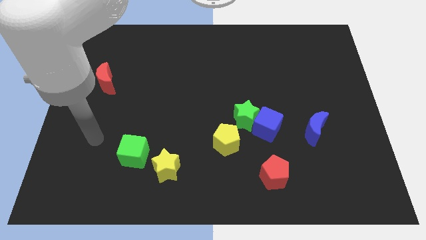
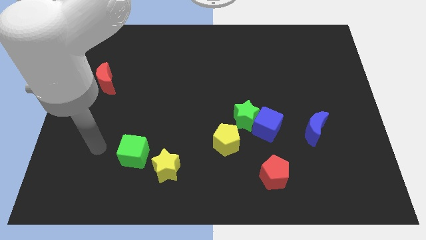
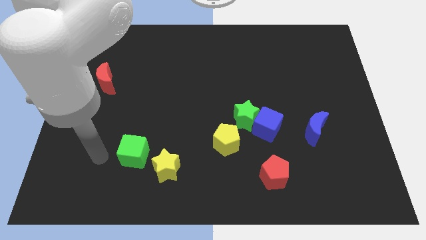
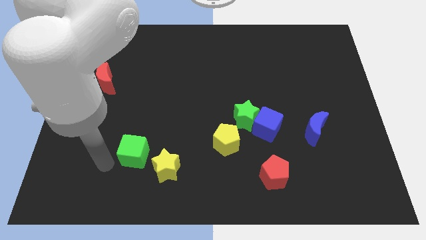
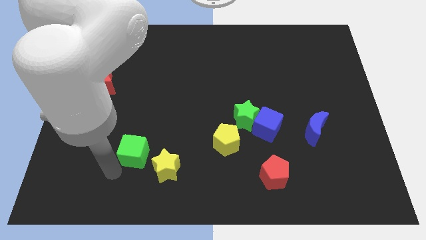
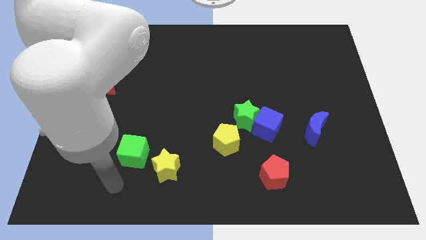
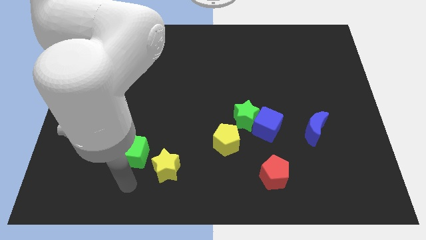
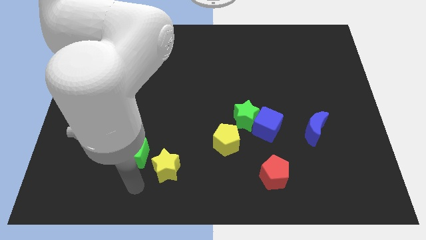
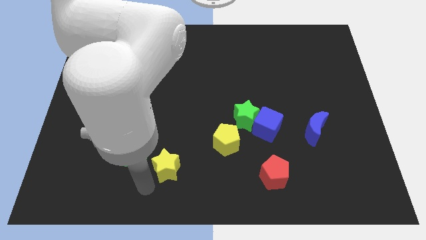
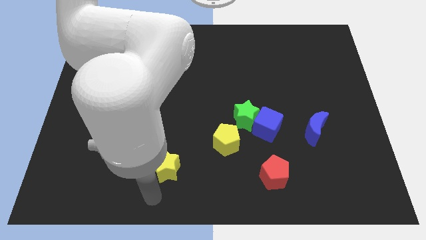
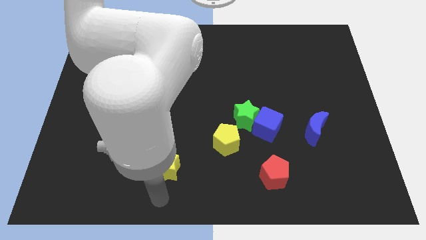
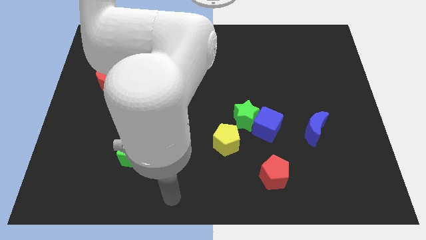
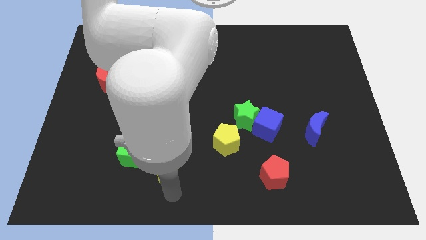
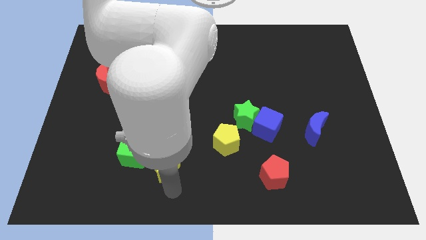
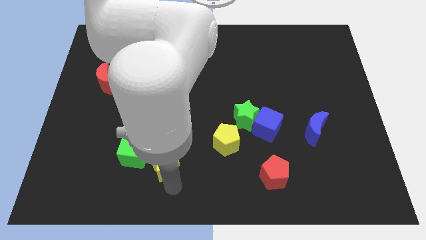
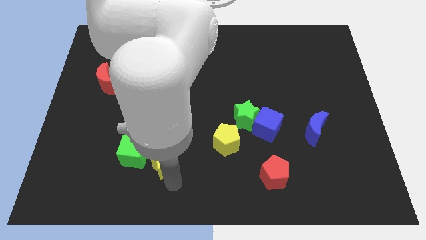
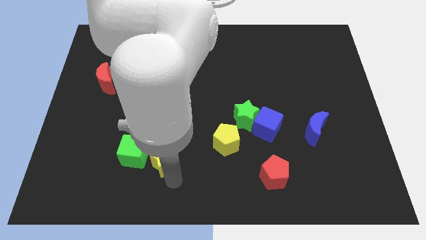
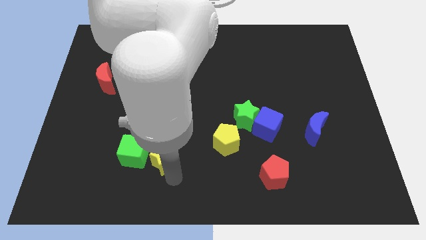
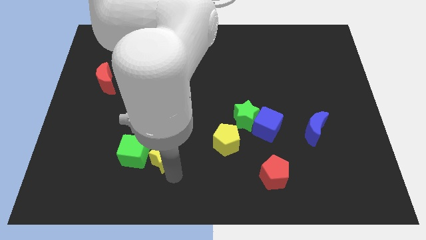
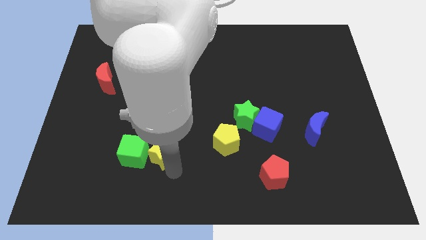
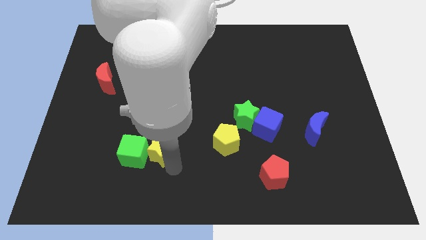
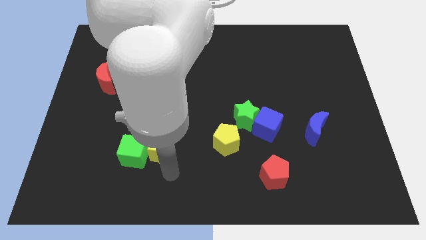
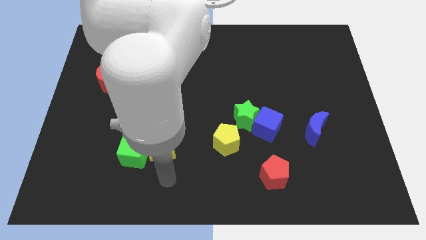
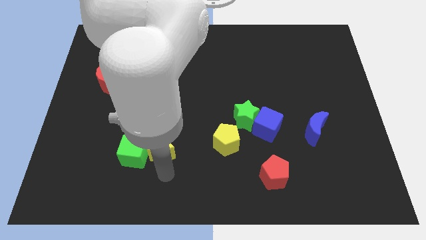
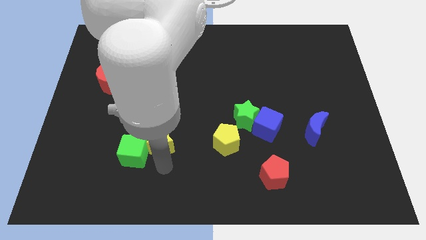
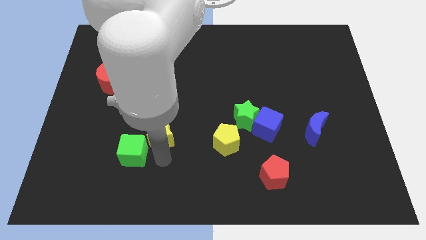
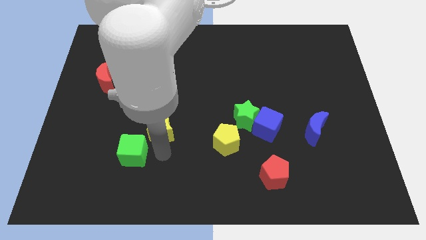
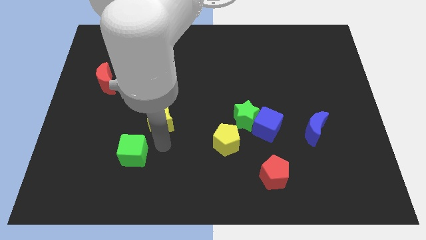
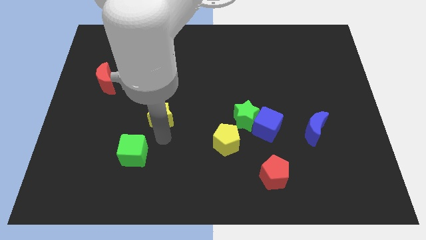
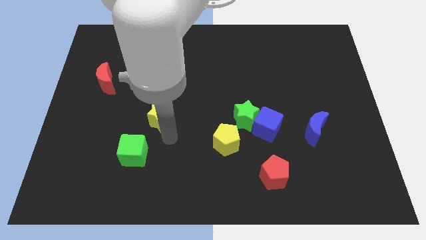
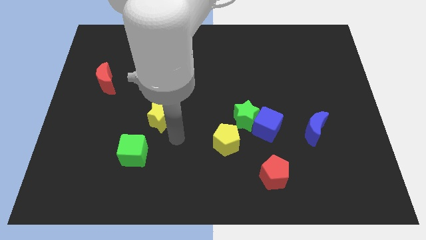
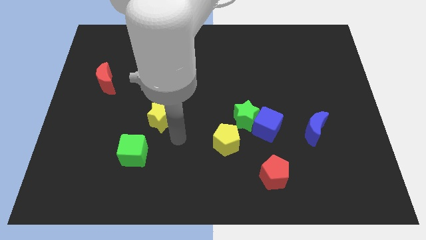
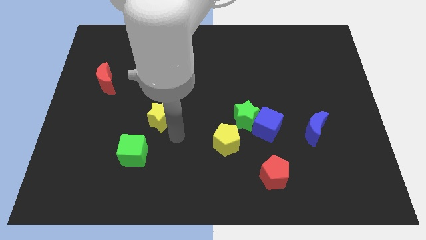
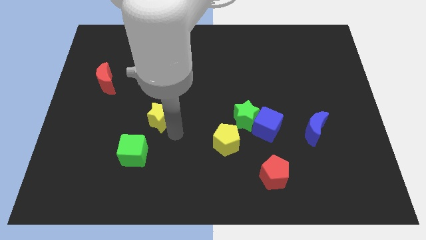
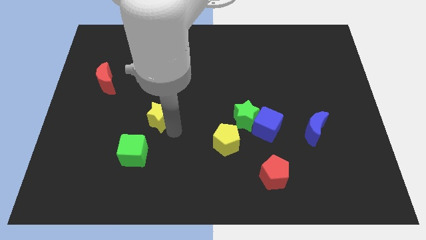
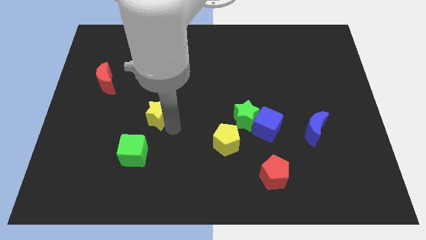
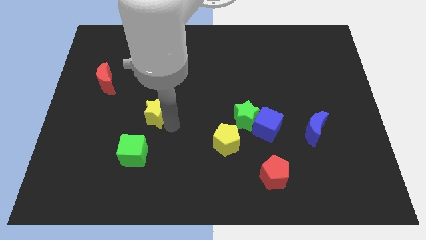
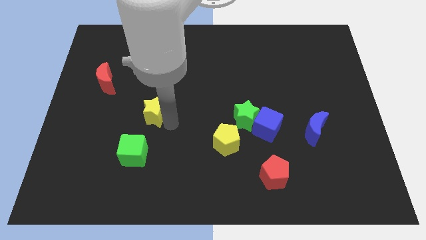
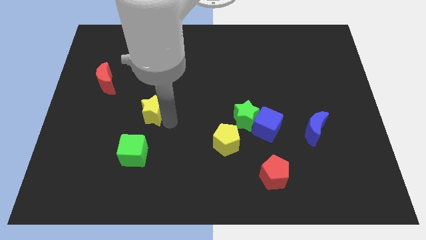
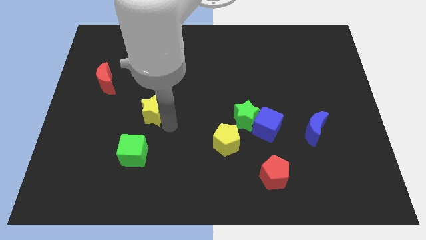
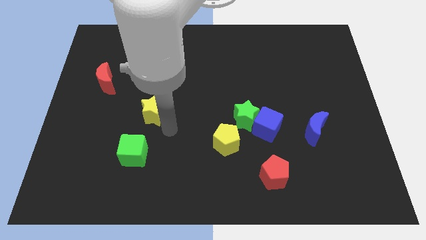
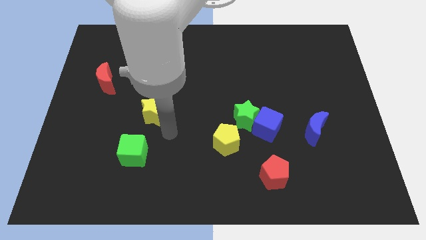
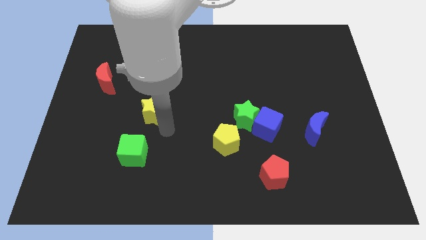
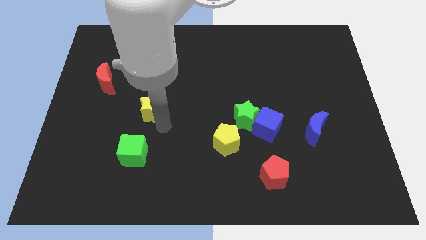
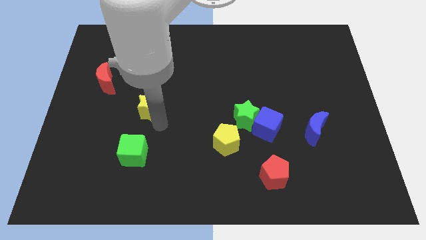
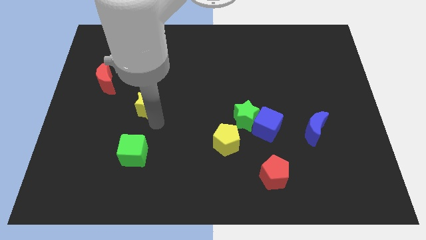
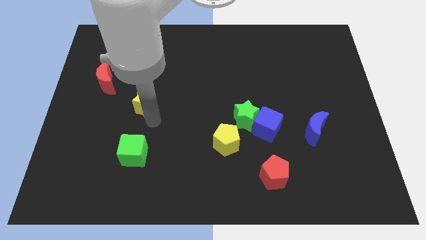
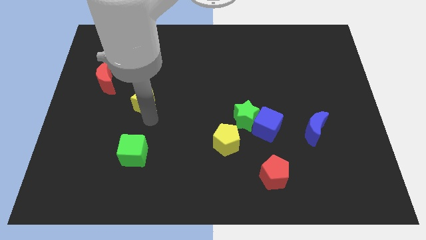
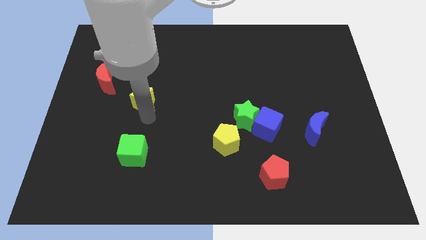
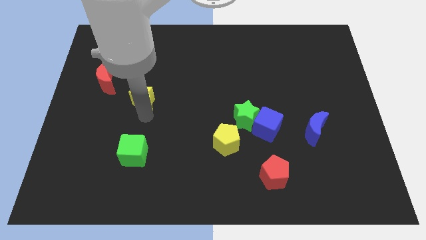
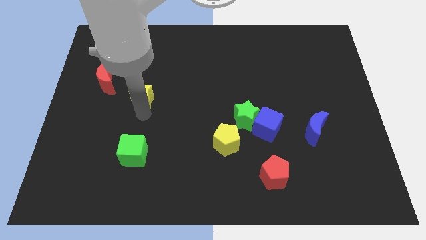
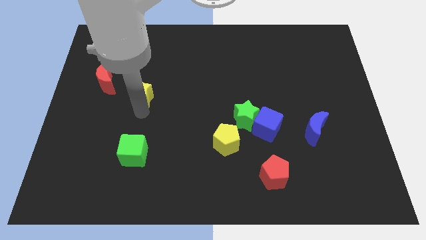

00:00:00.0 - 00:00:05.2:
slide the yellow star just right of the red moon

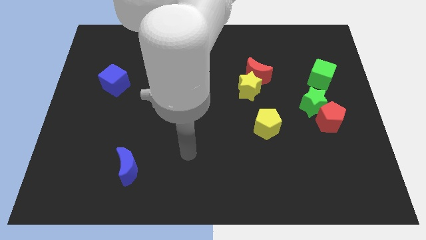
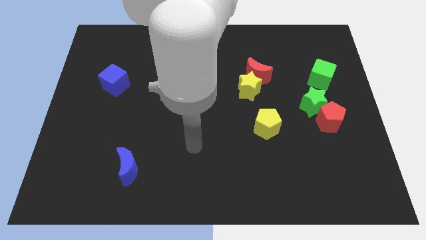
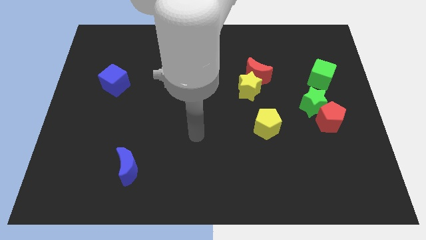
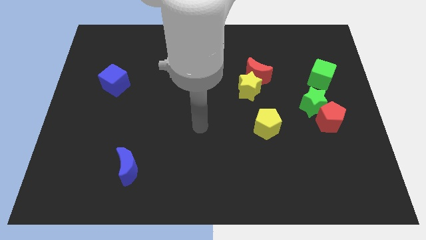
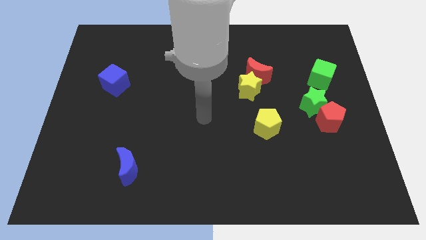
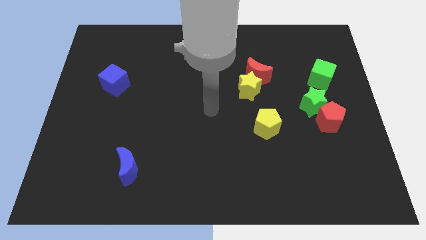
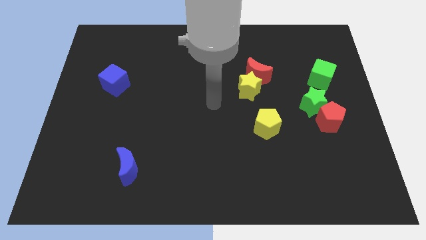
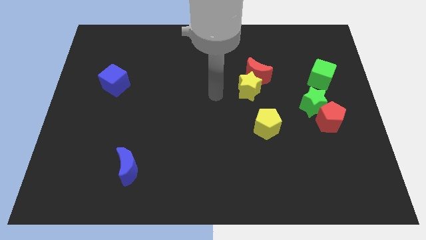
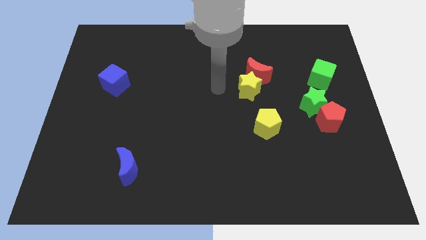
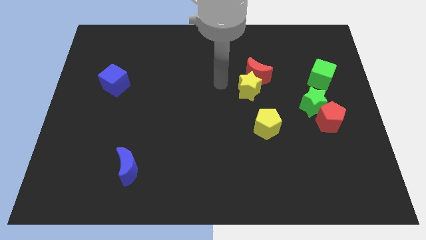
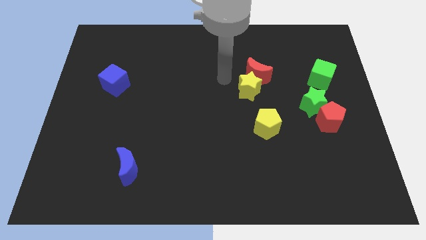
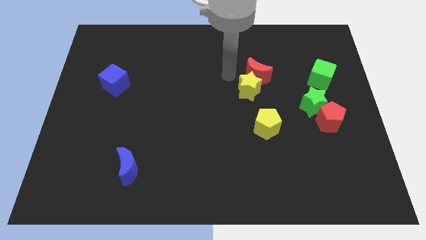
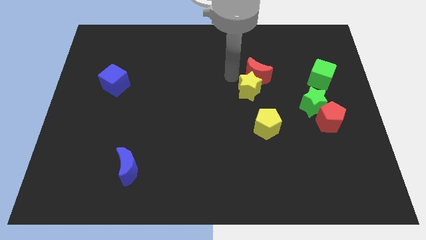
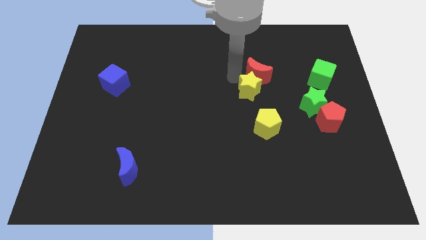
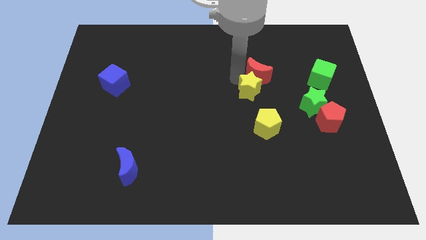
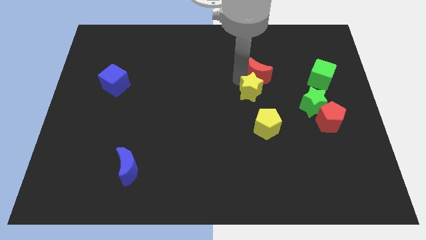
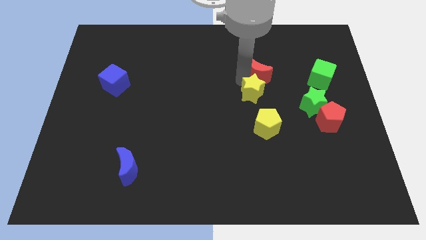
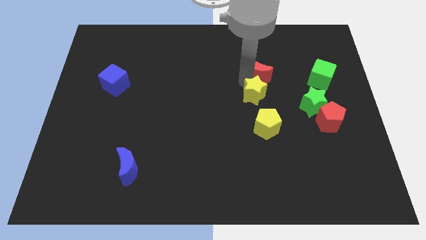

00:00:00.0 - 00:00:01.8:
move the yellow star just left of the green star

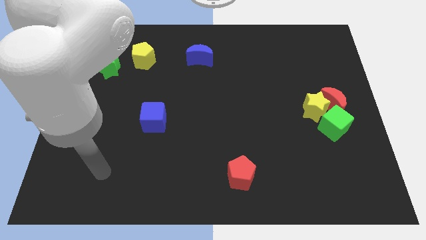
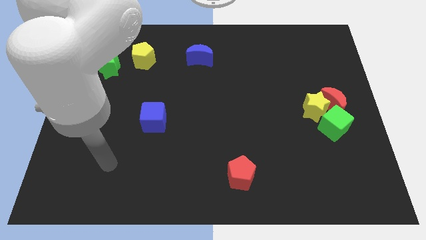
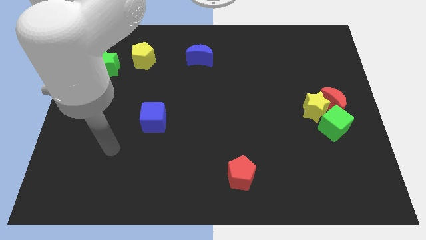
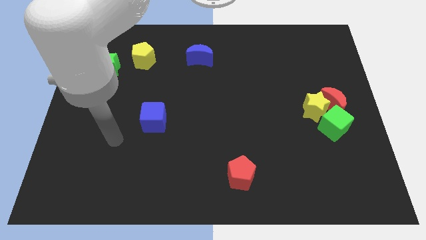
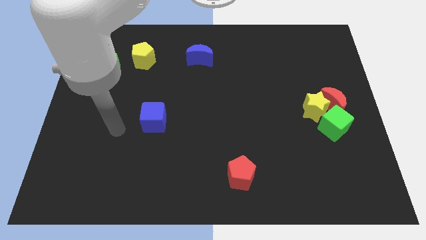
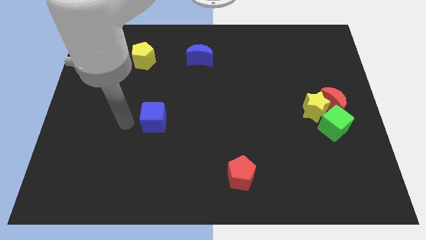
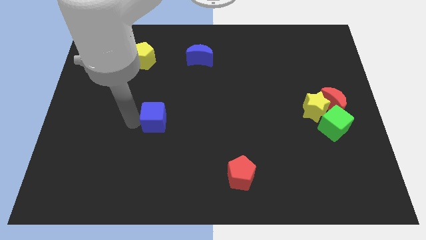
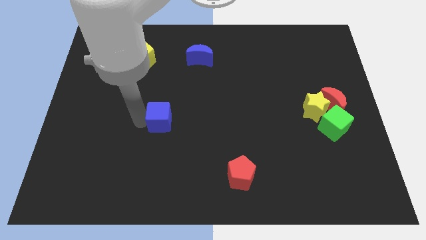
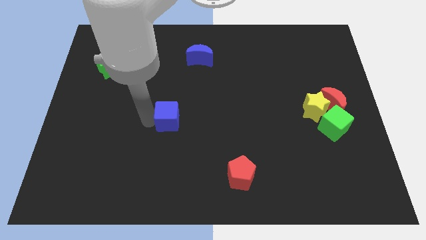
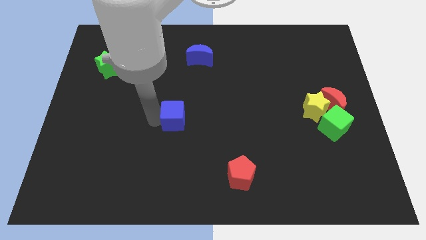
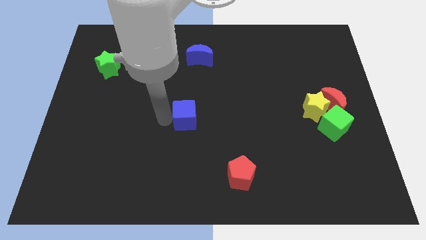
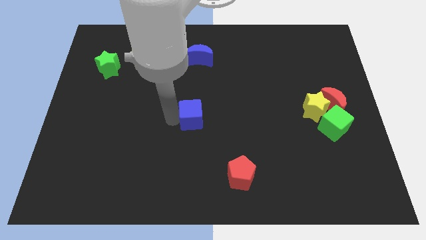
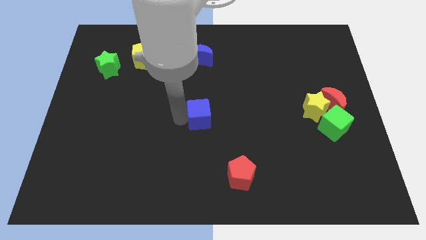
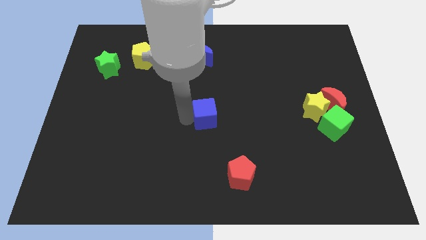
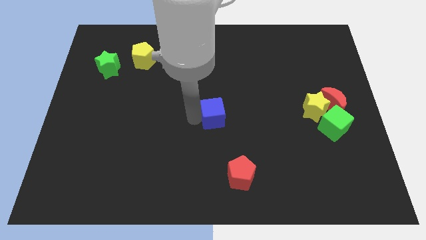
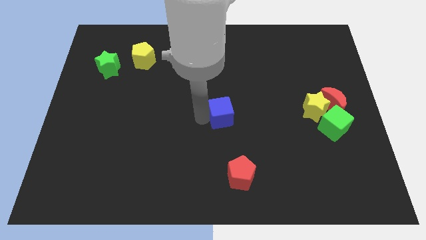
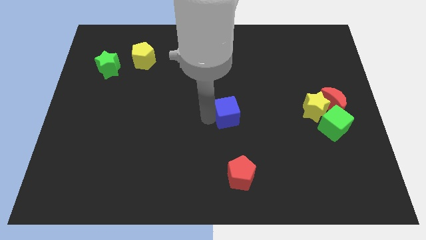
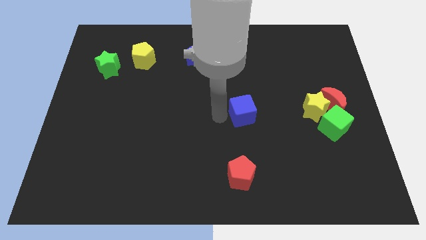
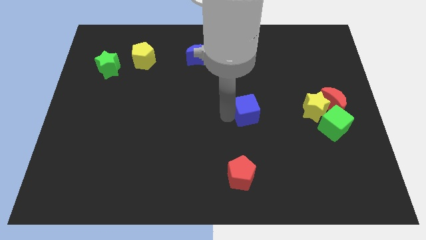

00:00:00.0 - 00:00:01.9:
move the blue cube just left of the yellow star
